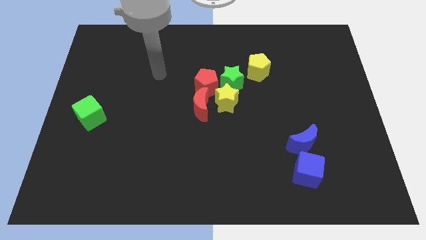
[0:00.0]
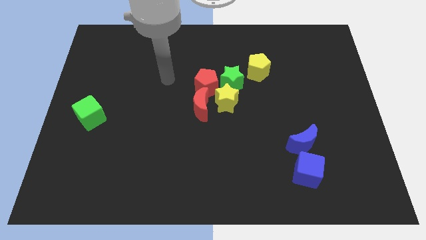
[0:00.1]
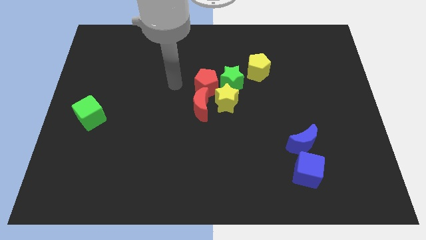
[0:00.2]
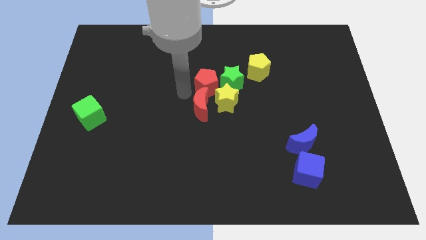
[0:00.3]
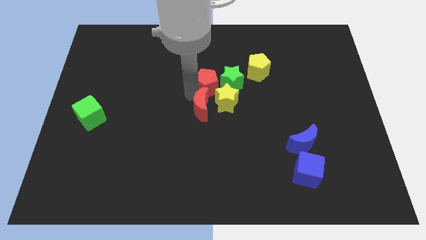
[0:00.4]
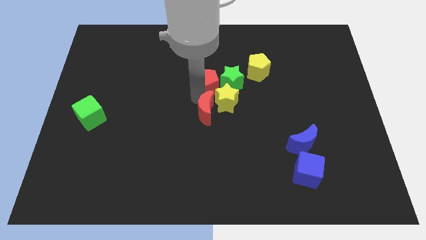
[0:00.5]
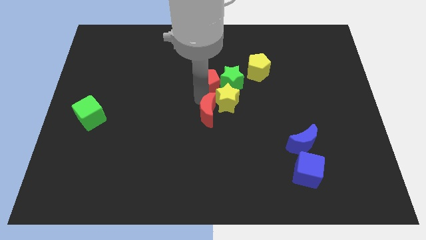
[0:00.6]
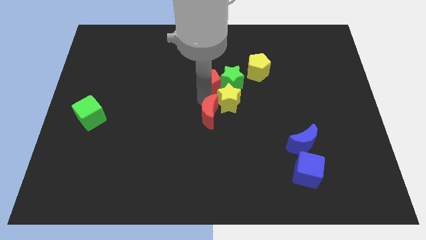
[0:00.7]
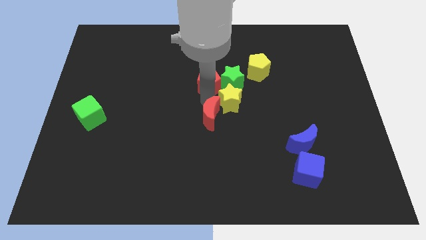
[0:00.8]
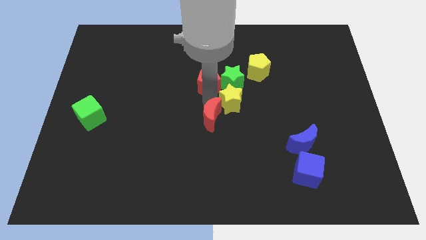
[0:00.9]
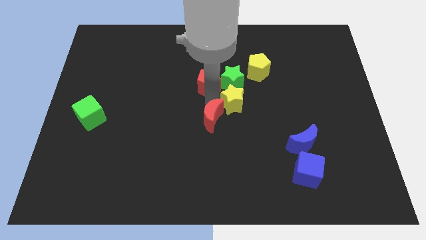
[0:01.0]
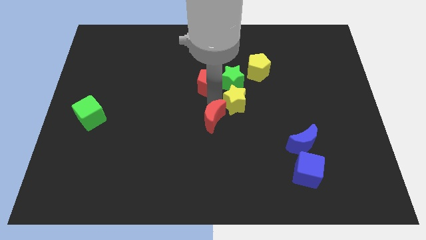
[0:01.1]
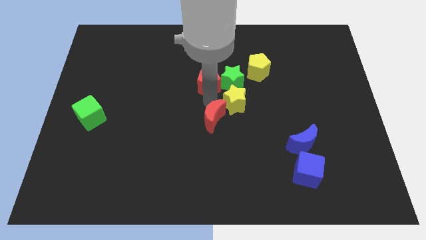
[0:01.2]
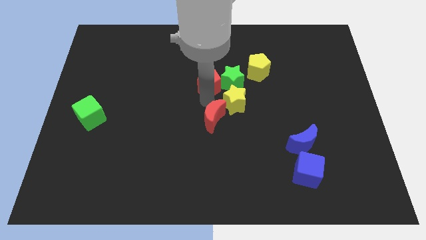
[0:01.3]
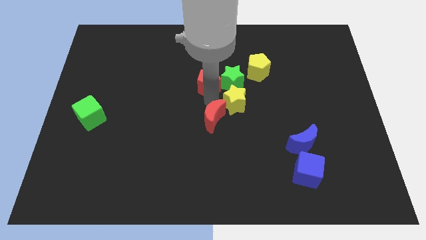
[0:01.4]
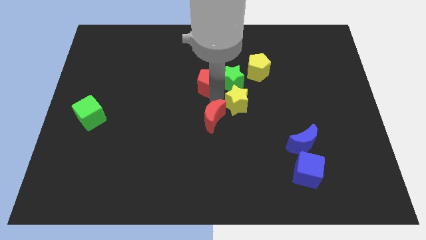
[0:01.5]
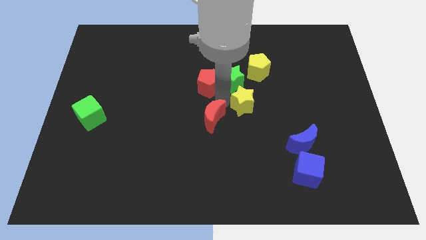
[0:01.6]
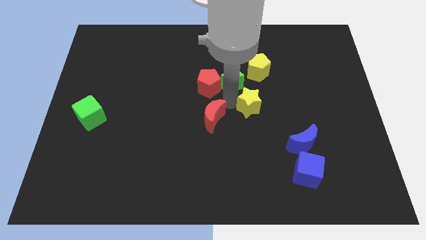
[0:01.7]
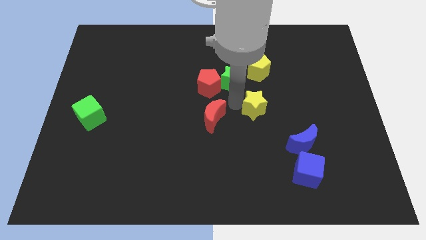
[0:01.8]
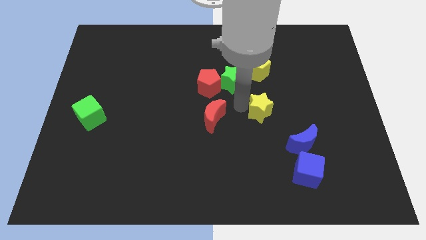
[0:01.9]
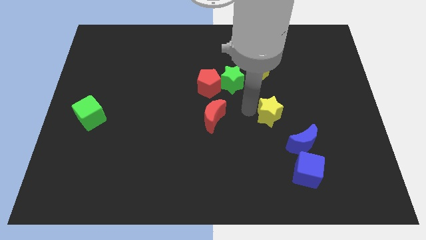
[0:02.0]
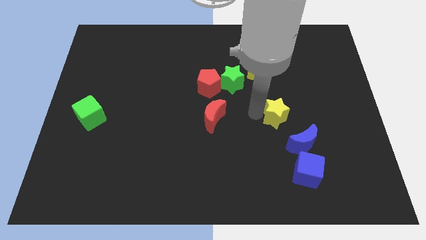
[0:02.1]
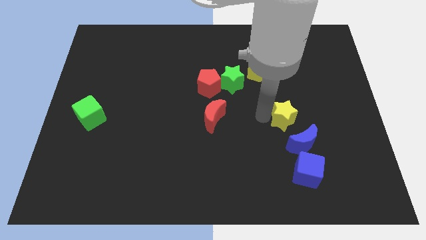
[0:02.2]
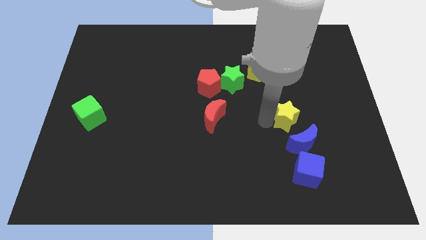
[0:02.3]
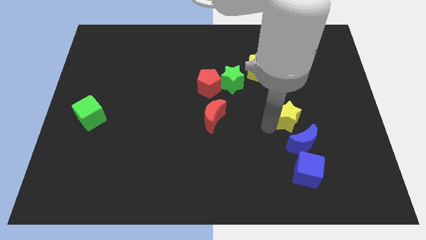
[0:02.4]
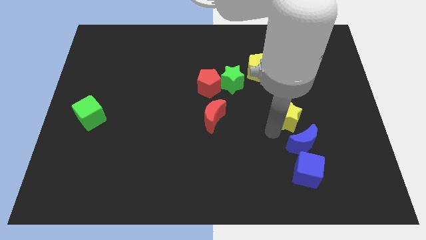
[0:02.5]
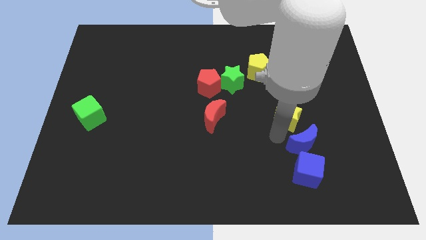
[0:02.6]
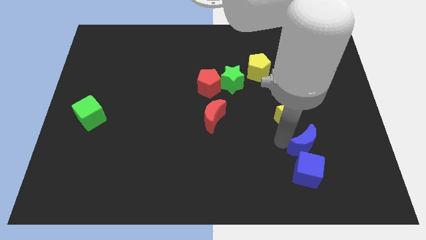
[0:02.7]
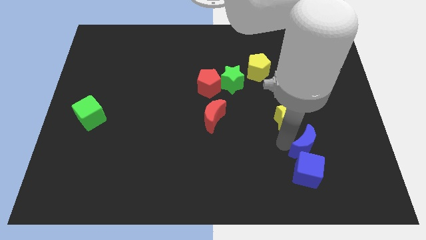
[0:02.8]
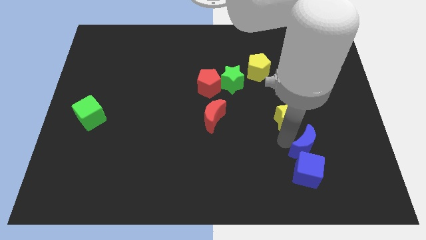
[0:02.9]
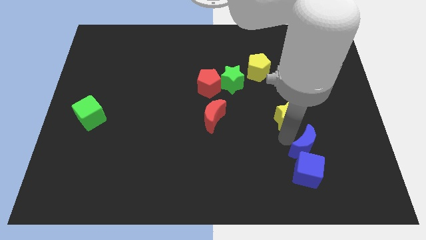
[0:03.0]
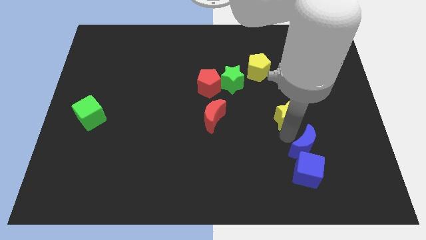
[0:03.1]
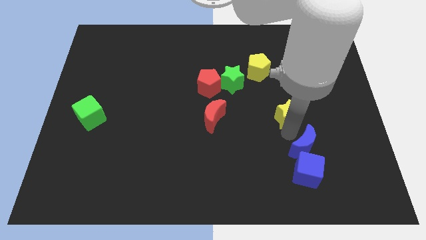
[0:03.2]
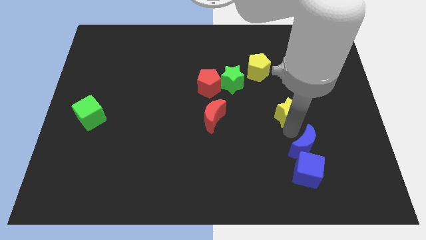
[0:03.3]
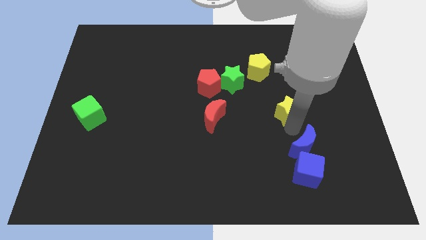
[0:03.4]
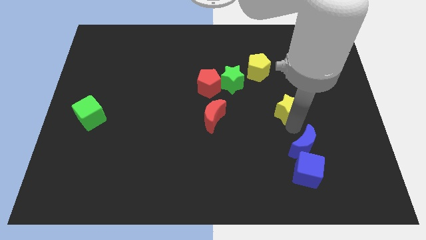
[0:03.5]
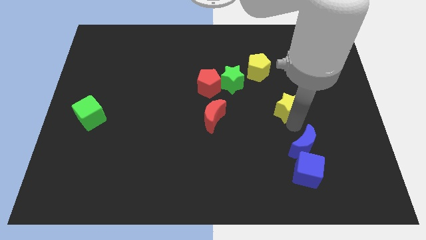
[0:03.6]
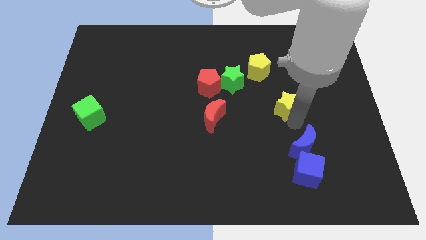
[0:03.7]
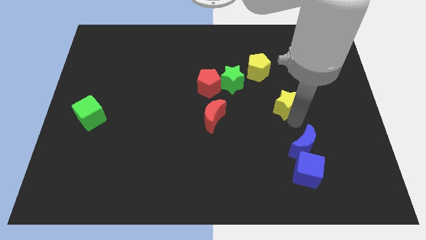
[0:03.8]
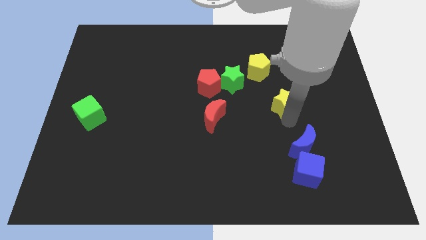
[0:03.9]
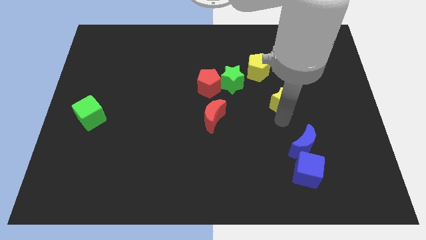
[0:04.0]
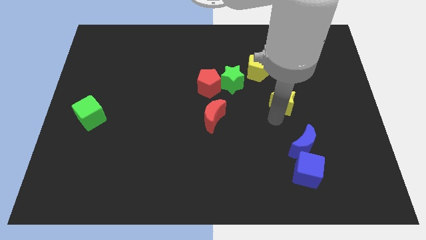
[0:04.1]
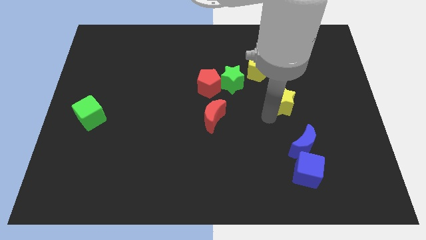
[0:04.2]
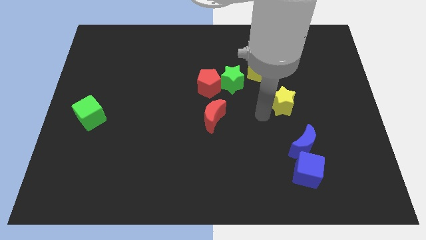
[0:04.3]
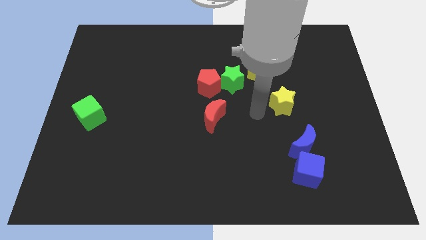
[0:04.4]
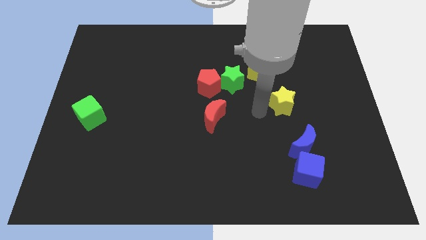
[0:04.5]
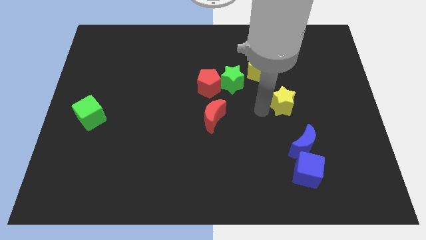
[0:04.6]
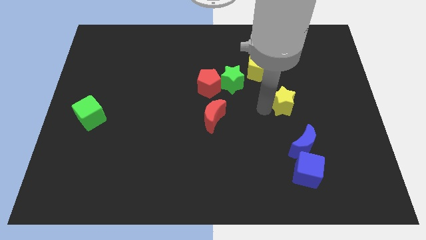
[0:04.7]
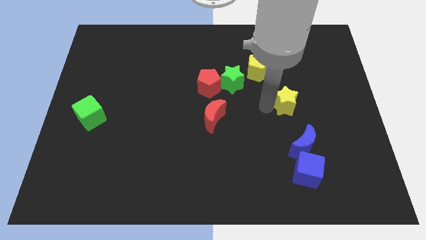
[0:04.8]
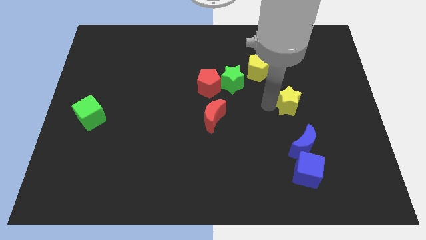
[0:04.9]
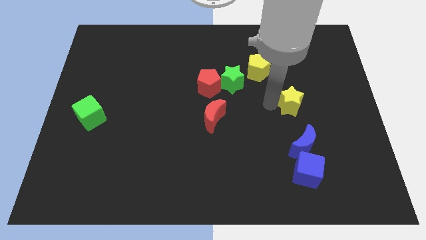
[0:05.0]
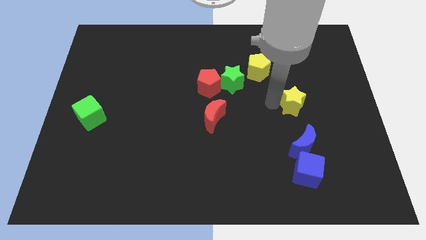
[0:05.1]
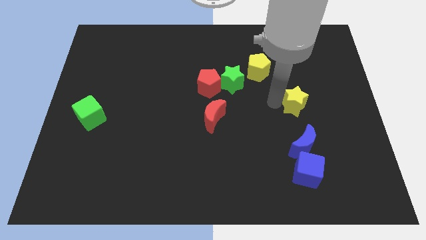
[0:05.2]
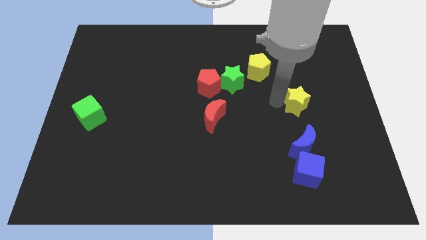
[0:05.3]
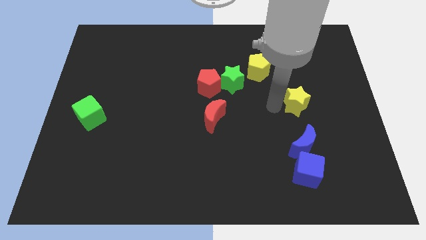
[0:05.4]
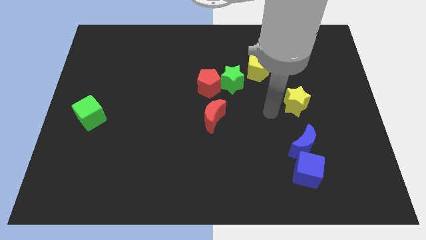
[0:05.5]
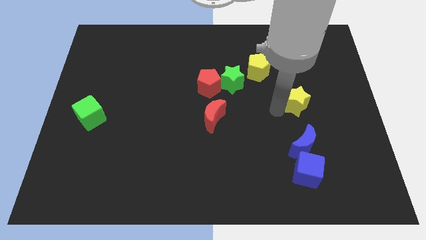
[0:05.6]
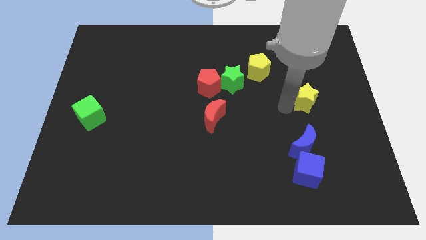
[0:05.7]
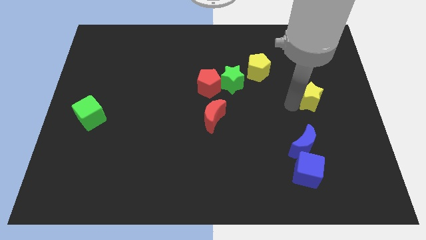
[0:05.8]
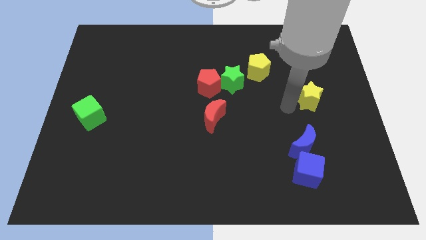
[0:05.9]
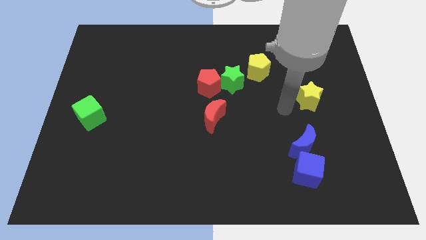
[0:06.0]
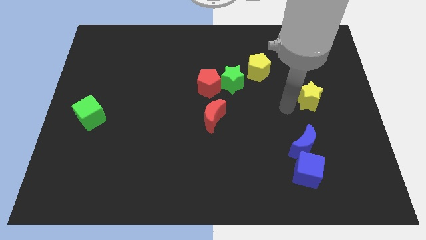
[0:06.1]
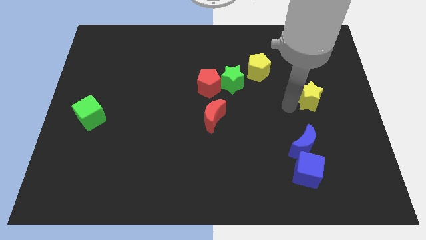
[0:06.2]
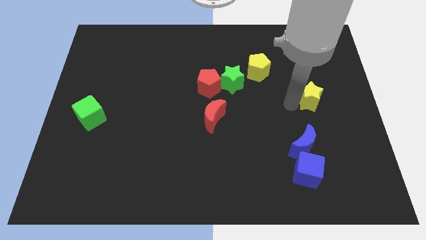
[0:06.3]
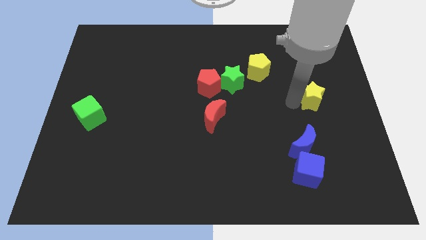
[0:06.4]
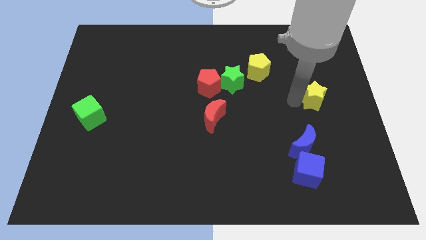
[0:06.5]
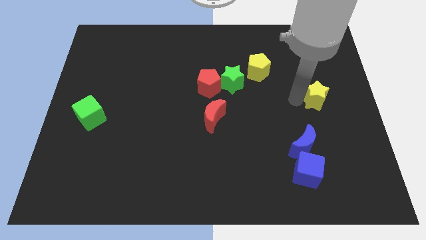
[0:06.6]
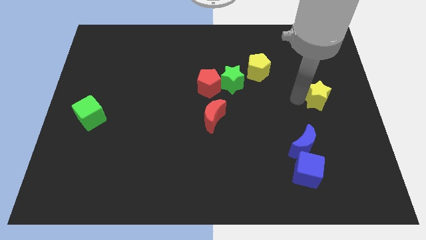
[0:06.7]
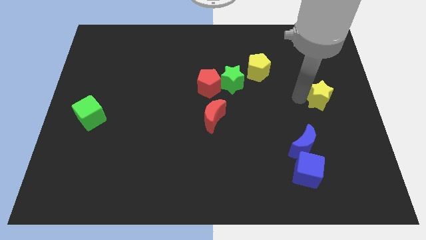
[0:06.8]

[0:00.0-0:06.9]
push the yellow star to the right side
